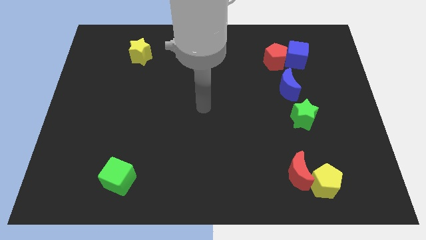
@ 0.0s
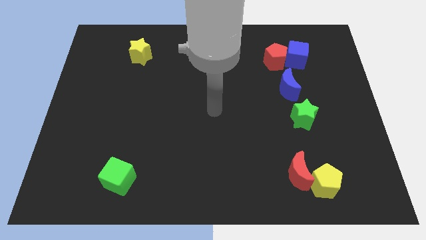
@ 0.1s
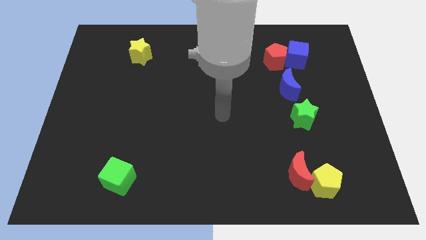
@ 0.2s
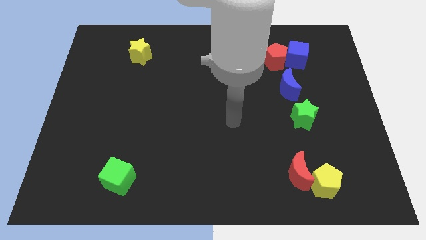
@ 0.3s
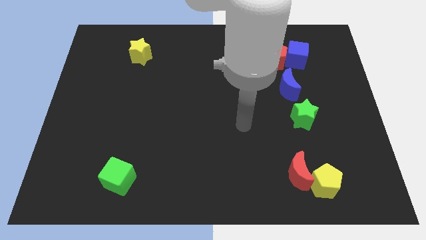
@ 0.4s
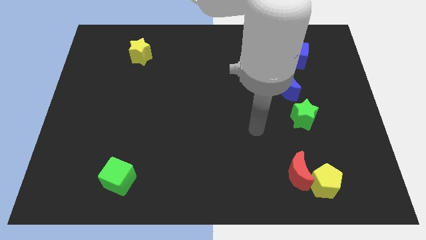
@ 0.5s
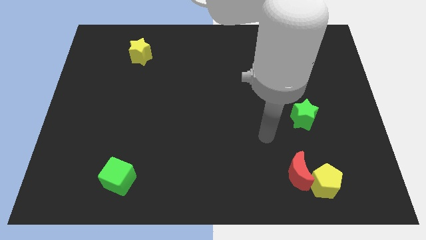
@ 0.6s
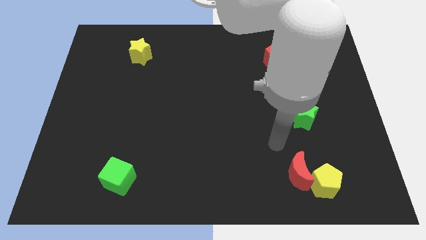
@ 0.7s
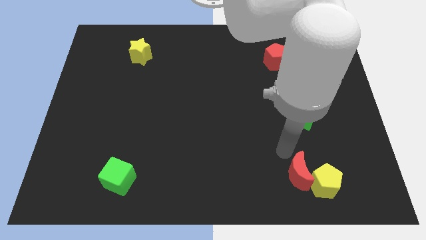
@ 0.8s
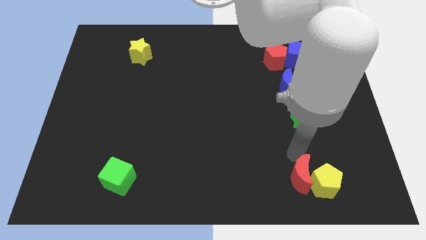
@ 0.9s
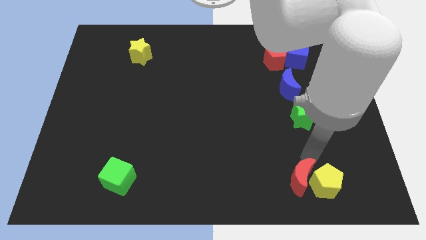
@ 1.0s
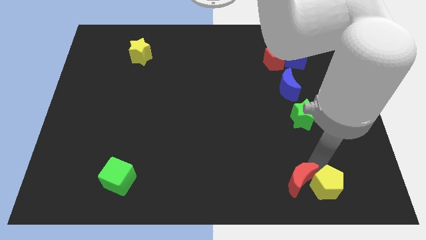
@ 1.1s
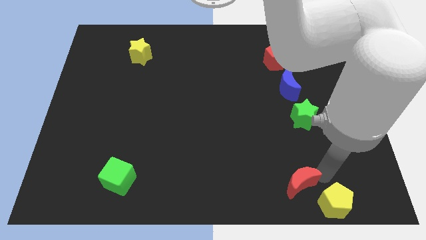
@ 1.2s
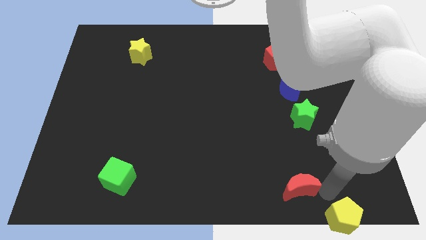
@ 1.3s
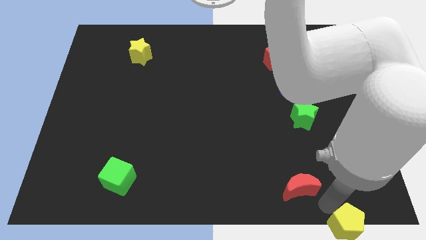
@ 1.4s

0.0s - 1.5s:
separate the red moon from the yellow pentagon

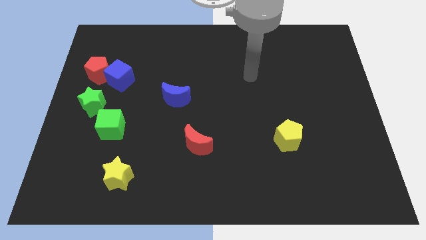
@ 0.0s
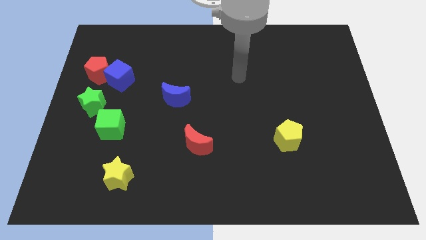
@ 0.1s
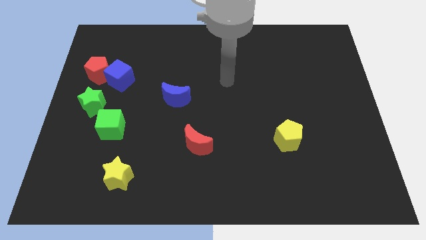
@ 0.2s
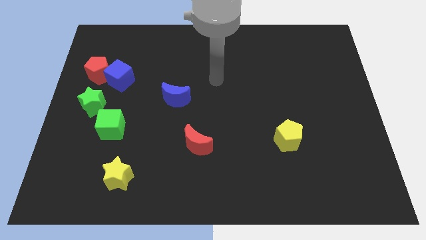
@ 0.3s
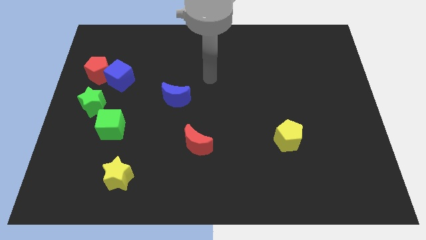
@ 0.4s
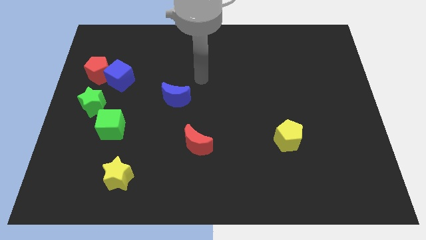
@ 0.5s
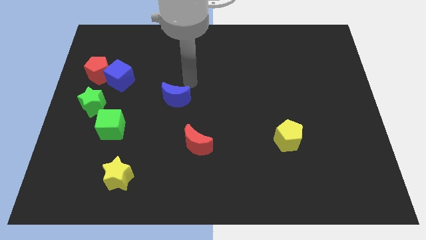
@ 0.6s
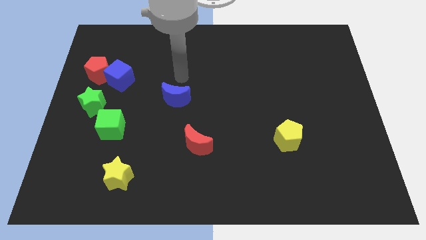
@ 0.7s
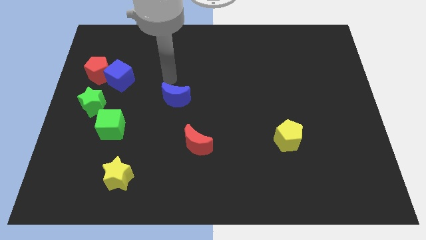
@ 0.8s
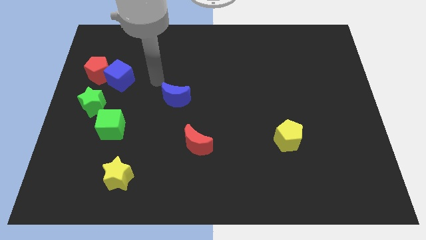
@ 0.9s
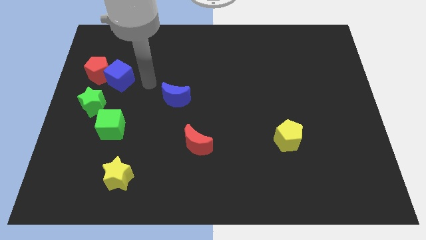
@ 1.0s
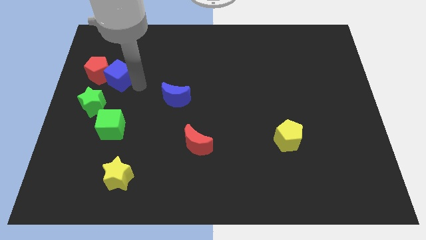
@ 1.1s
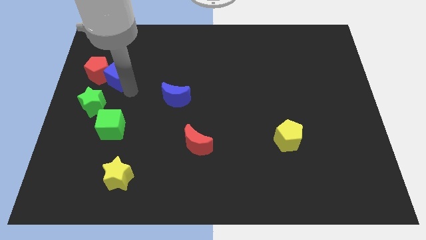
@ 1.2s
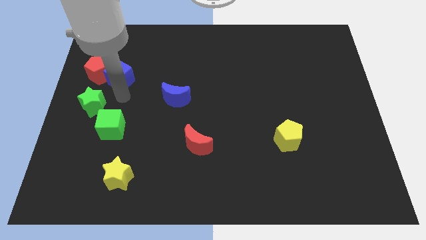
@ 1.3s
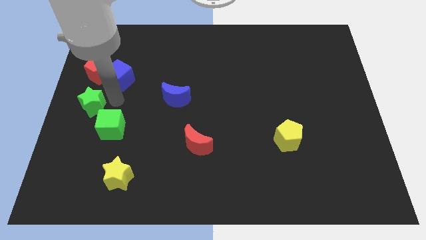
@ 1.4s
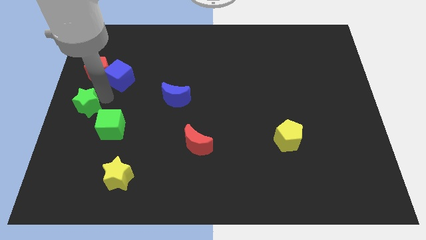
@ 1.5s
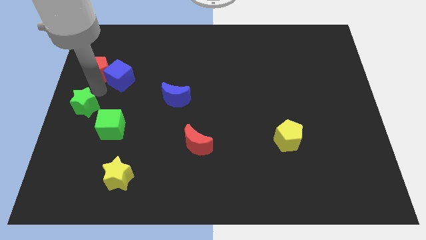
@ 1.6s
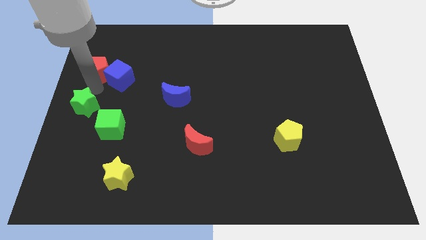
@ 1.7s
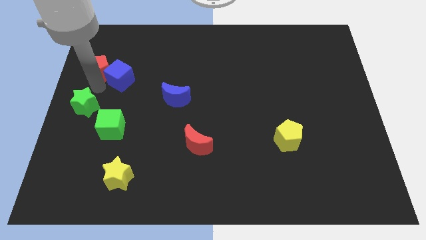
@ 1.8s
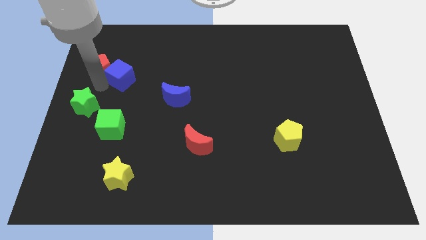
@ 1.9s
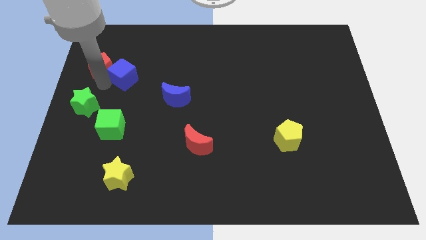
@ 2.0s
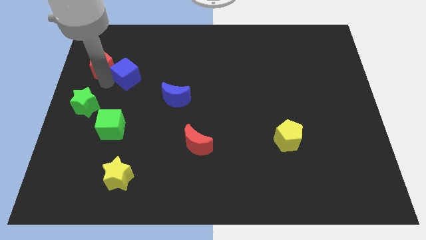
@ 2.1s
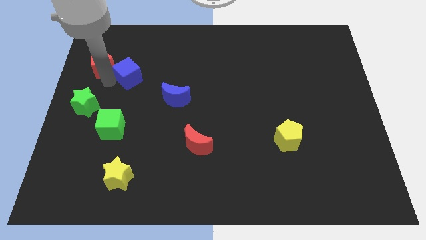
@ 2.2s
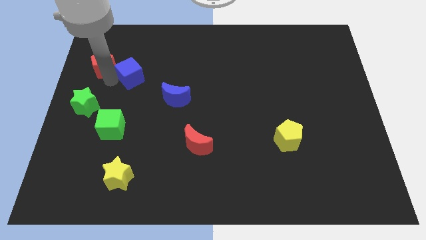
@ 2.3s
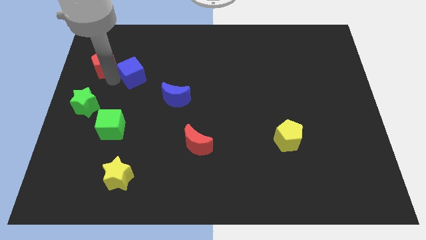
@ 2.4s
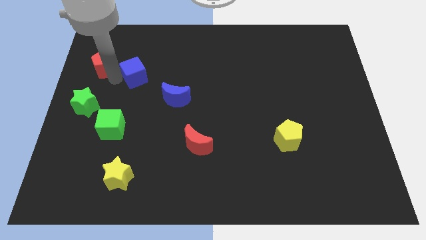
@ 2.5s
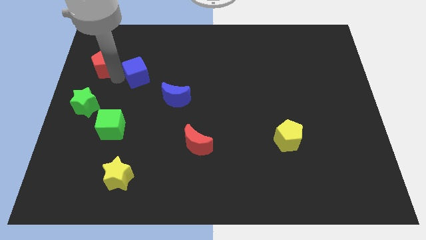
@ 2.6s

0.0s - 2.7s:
move the blue cube away from the red pentagon and green star

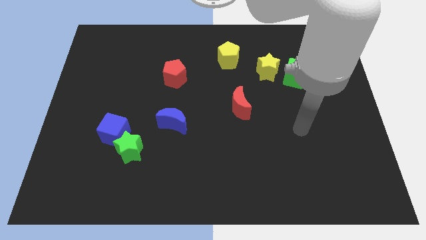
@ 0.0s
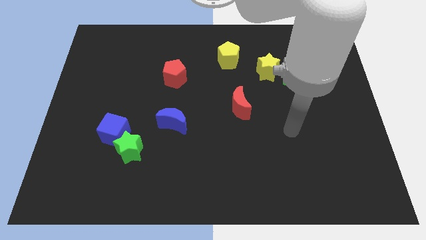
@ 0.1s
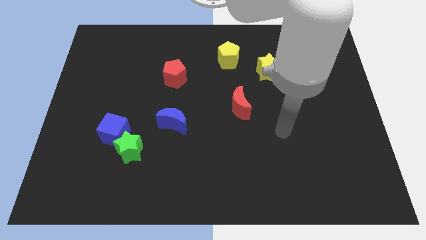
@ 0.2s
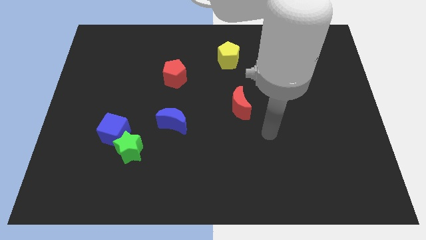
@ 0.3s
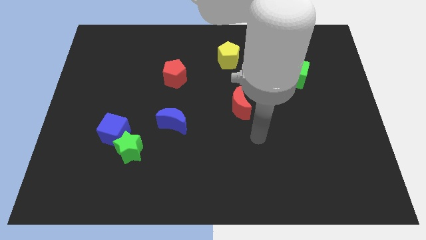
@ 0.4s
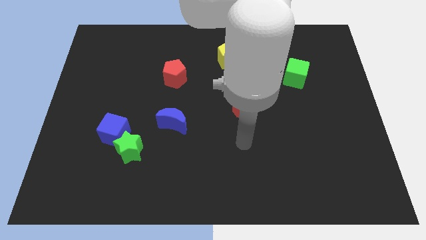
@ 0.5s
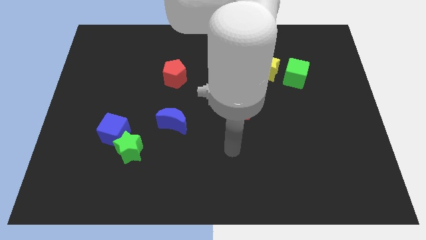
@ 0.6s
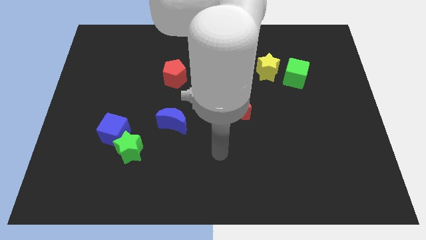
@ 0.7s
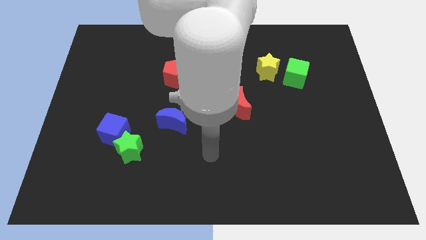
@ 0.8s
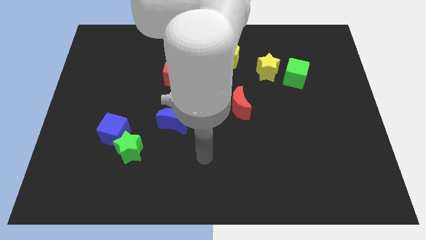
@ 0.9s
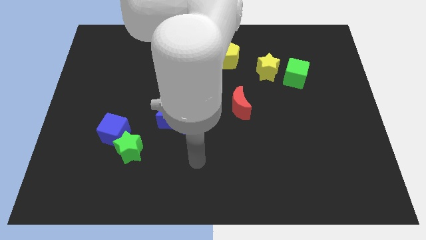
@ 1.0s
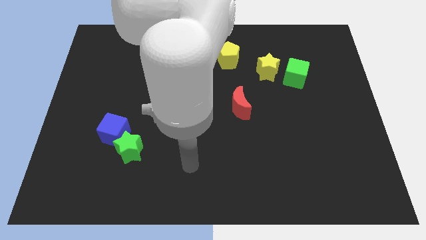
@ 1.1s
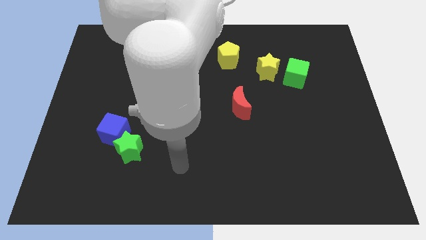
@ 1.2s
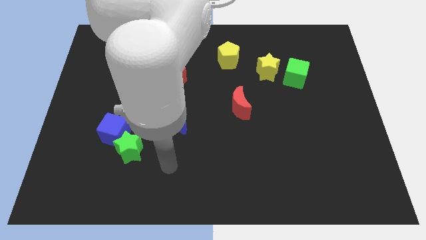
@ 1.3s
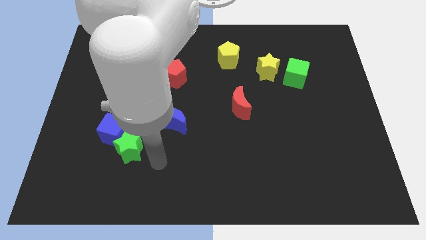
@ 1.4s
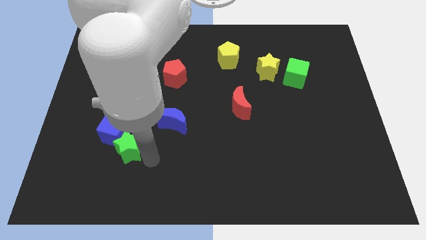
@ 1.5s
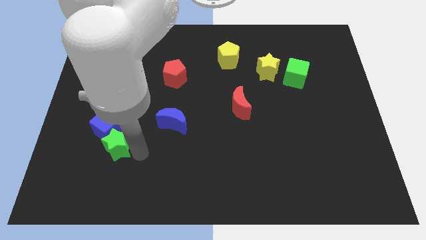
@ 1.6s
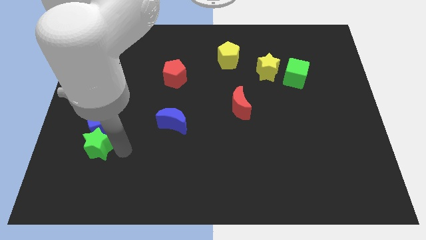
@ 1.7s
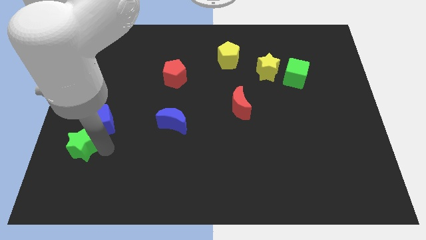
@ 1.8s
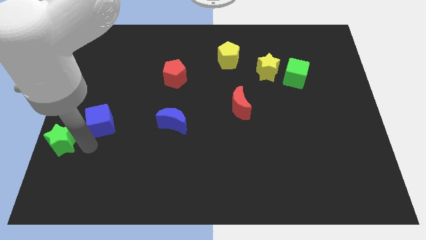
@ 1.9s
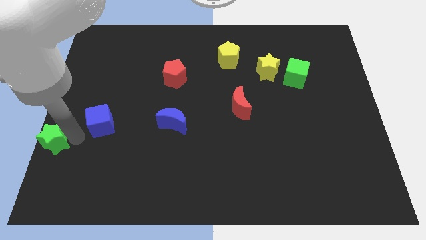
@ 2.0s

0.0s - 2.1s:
separate the blue cube from the green star

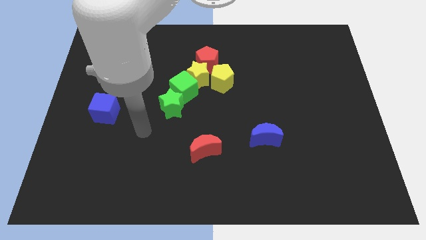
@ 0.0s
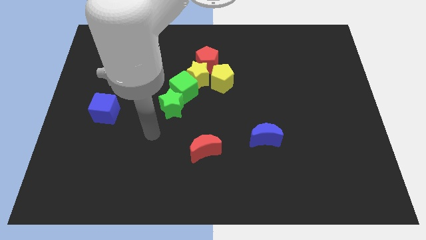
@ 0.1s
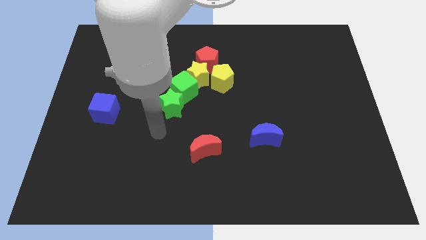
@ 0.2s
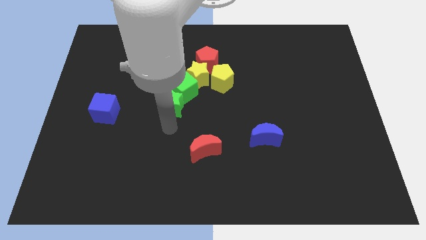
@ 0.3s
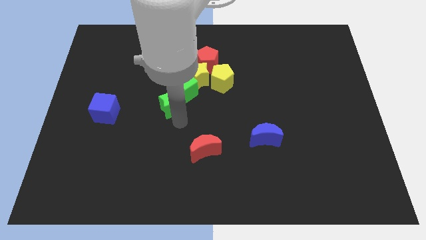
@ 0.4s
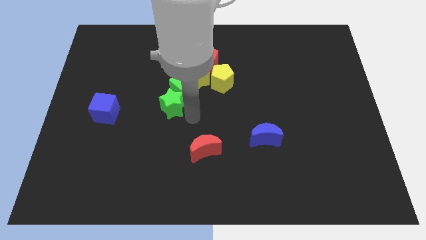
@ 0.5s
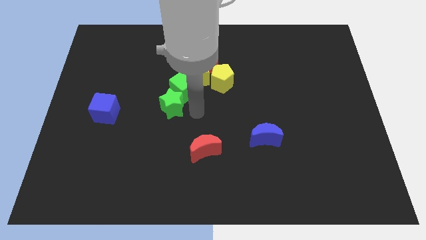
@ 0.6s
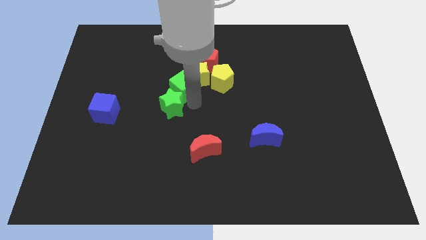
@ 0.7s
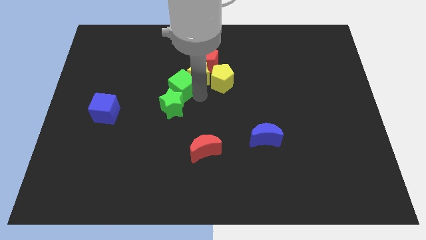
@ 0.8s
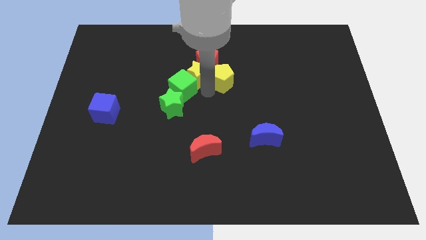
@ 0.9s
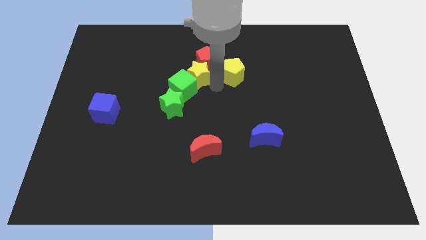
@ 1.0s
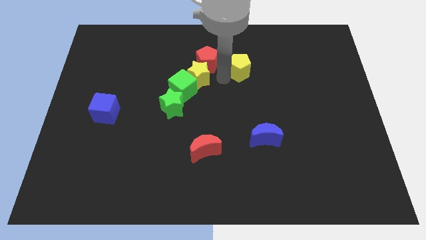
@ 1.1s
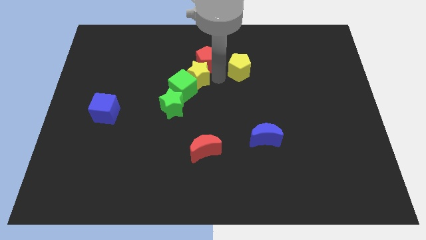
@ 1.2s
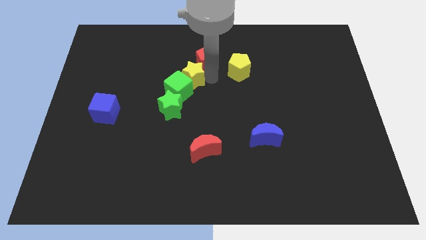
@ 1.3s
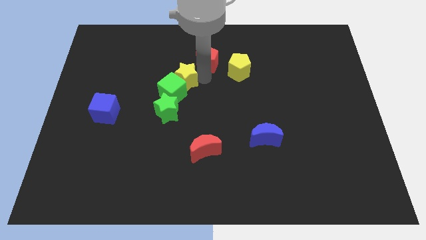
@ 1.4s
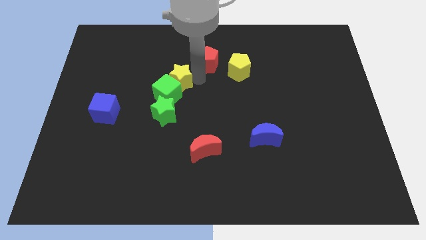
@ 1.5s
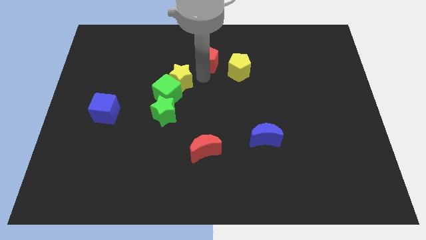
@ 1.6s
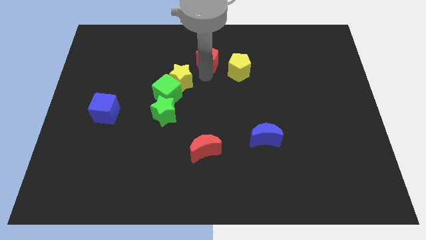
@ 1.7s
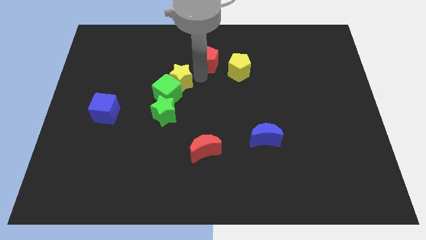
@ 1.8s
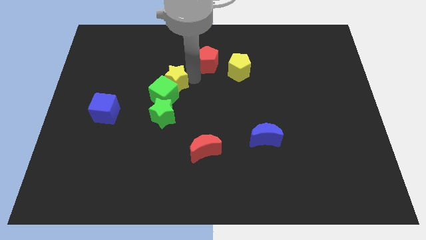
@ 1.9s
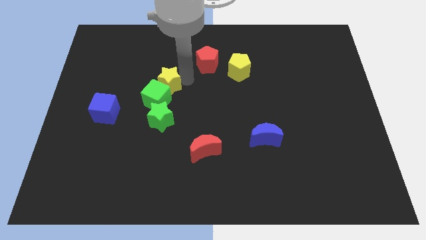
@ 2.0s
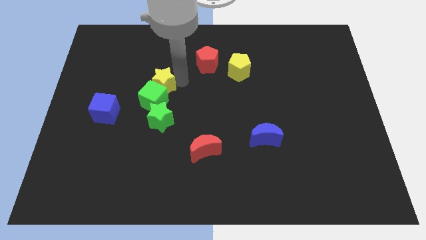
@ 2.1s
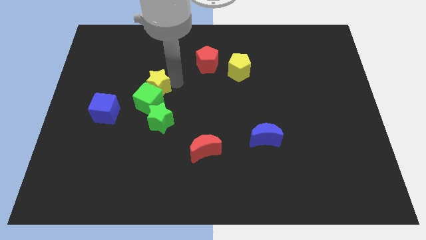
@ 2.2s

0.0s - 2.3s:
move the yellow star away from the green cube, red pentagon, and yellow pentagon

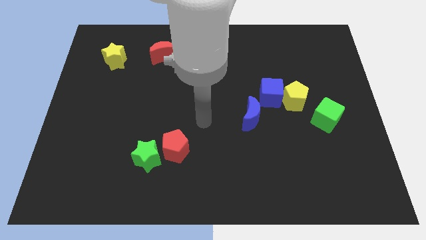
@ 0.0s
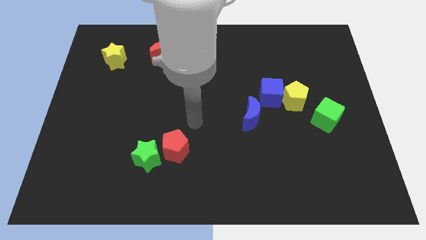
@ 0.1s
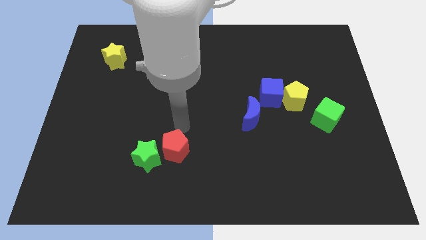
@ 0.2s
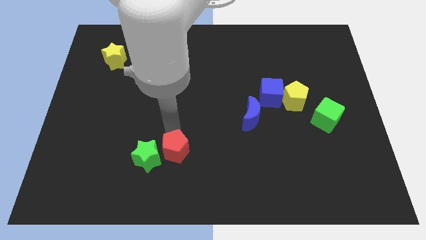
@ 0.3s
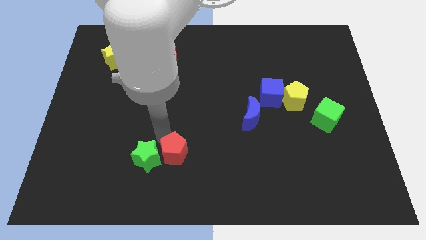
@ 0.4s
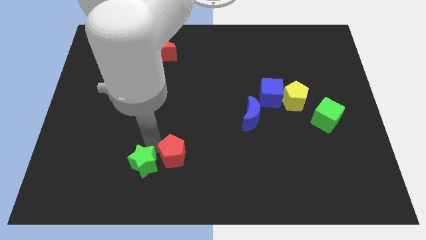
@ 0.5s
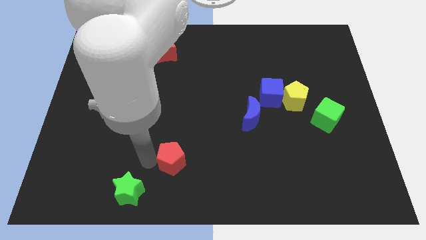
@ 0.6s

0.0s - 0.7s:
move the red pentagon away from the green star
